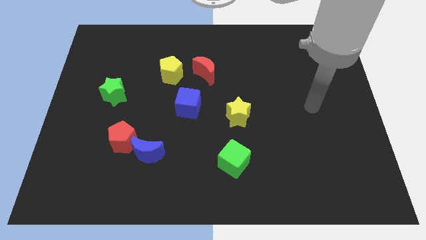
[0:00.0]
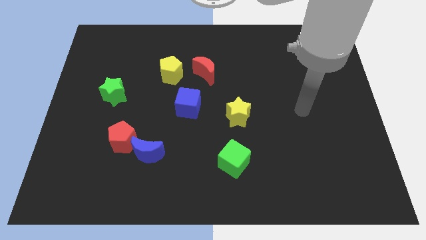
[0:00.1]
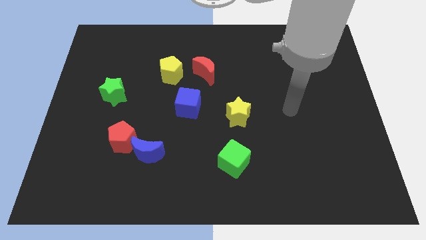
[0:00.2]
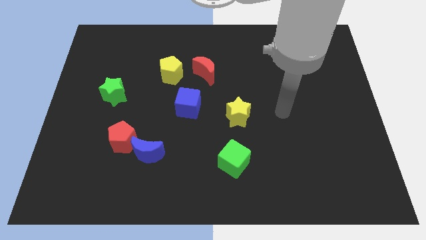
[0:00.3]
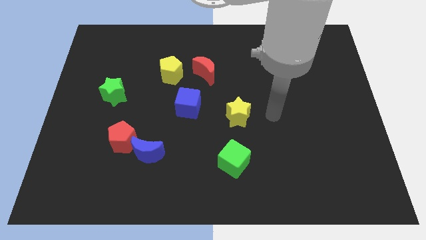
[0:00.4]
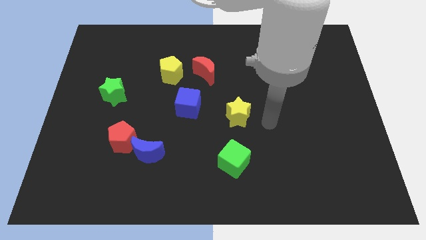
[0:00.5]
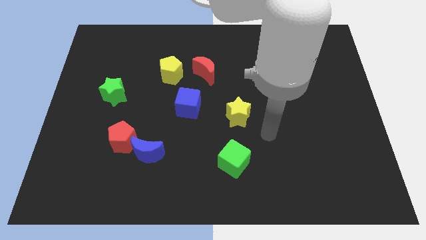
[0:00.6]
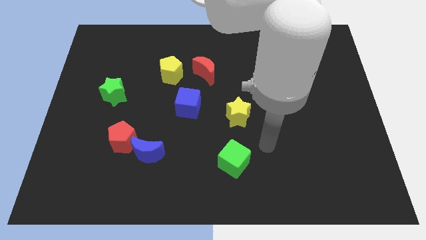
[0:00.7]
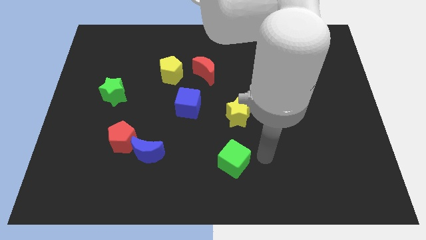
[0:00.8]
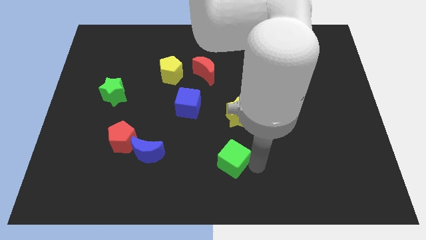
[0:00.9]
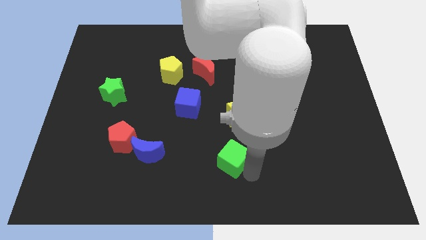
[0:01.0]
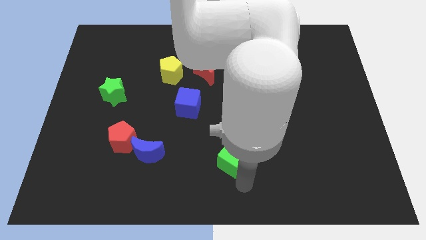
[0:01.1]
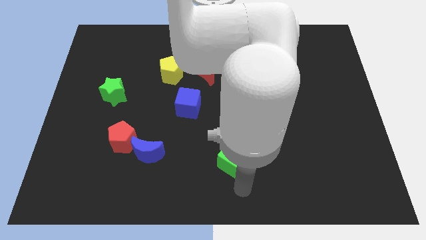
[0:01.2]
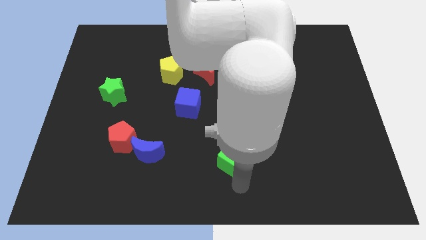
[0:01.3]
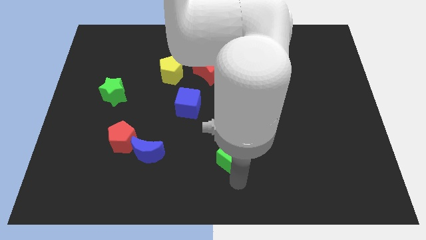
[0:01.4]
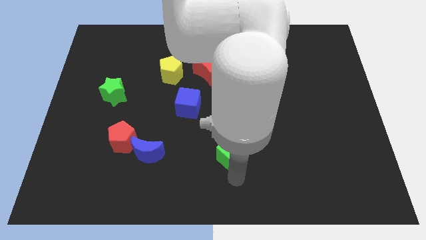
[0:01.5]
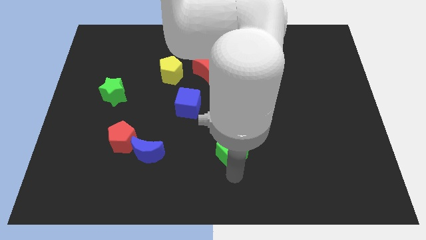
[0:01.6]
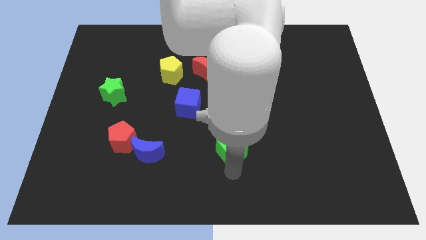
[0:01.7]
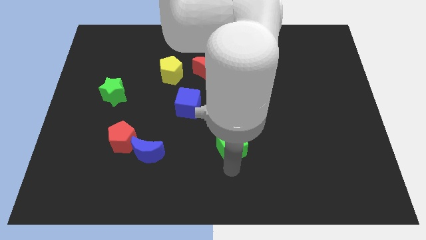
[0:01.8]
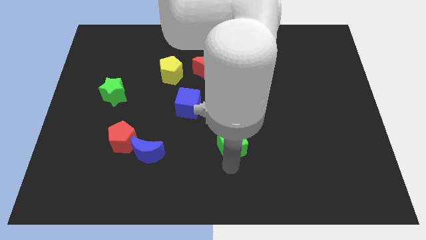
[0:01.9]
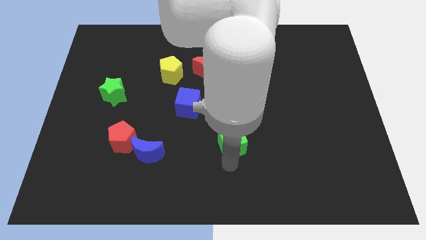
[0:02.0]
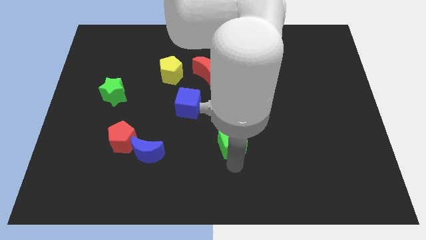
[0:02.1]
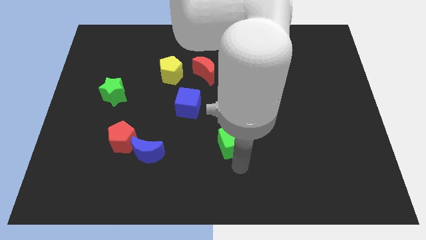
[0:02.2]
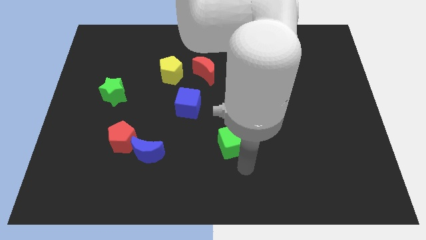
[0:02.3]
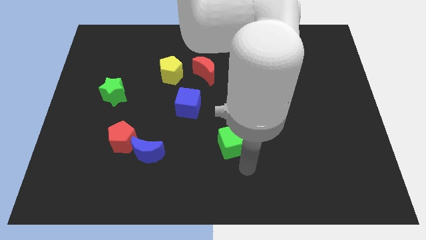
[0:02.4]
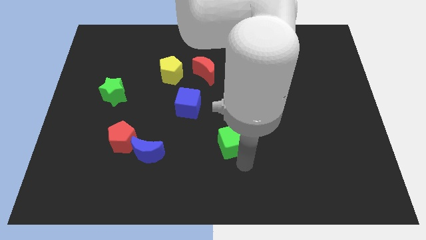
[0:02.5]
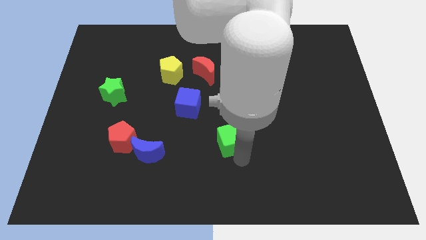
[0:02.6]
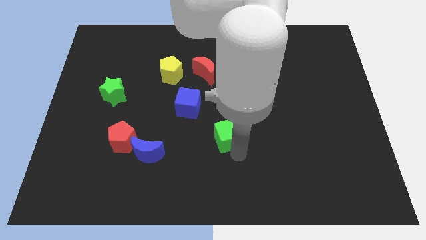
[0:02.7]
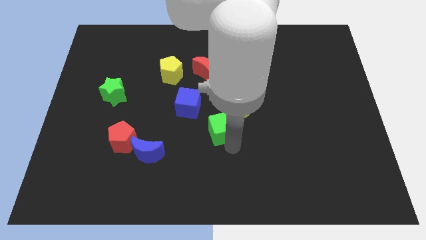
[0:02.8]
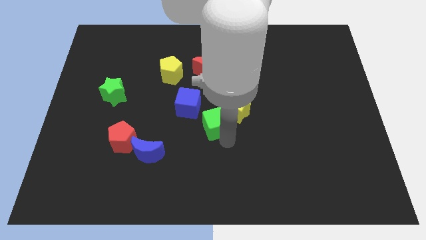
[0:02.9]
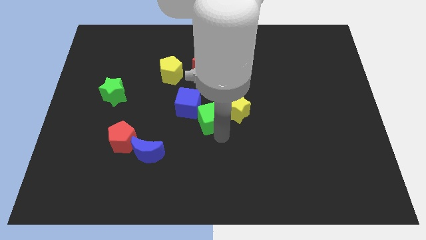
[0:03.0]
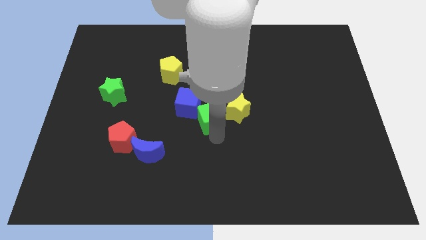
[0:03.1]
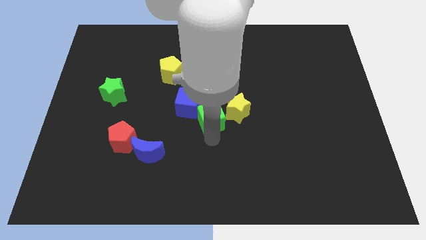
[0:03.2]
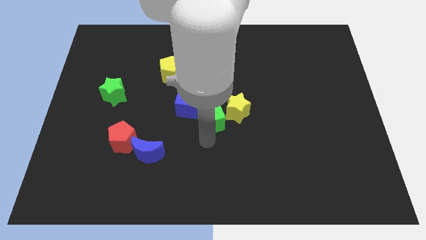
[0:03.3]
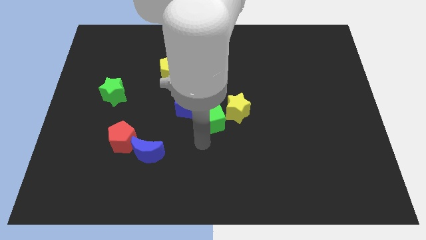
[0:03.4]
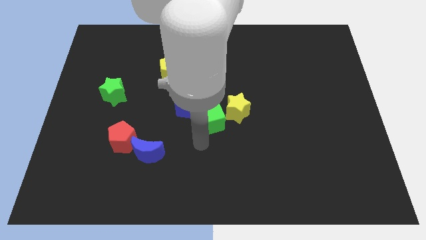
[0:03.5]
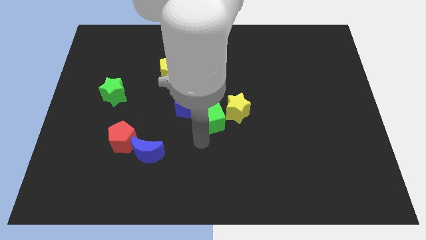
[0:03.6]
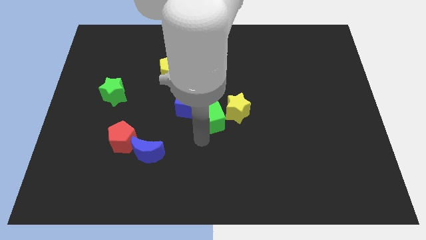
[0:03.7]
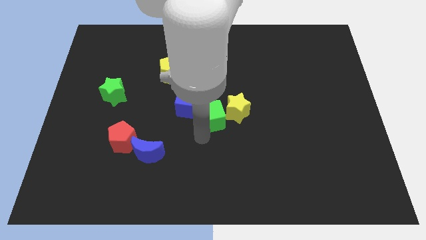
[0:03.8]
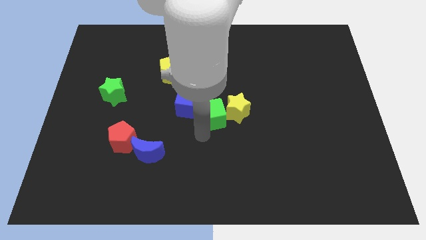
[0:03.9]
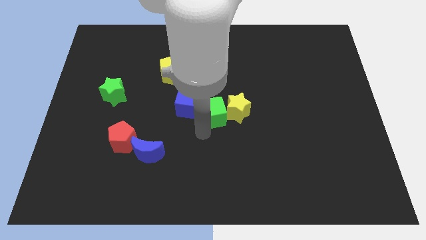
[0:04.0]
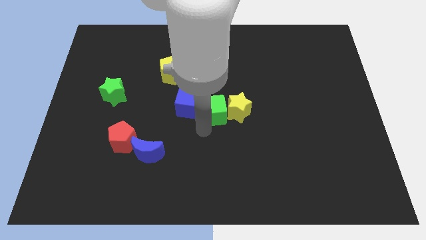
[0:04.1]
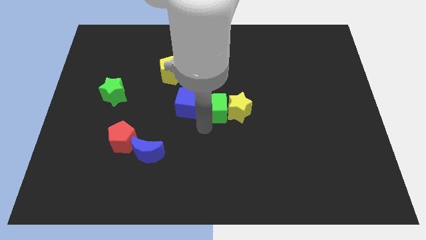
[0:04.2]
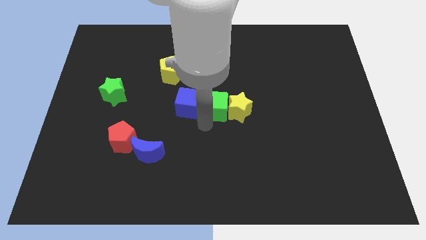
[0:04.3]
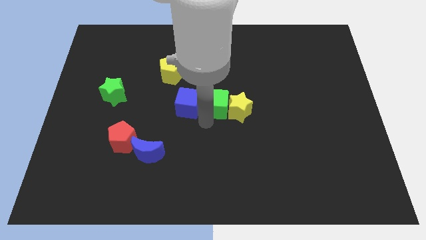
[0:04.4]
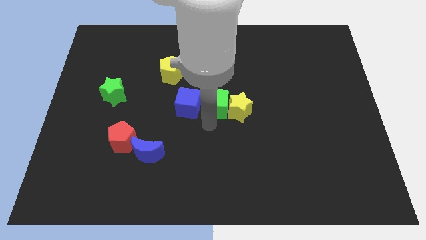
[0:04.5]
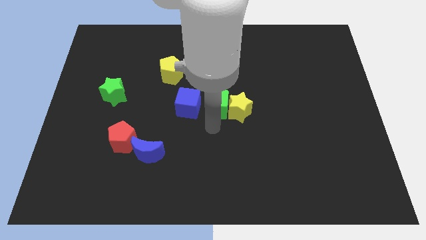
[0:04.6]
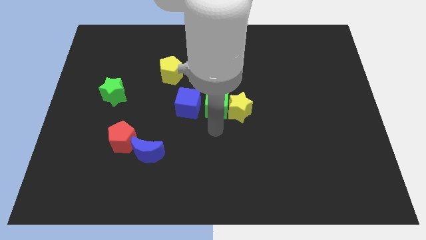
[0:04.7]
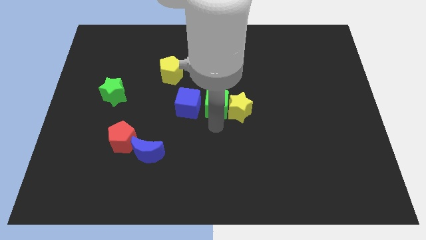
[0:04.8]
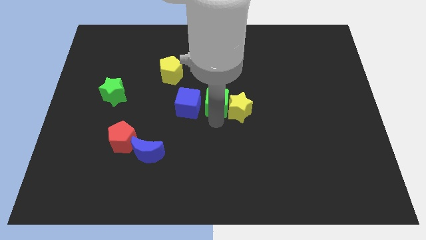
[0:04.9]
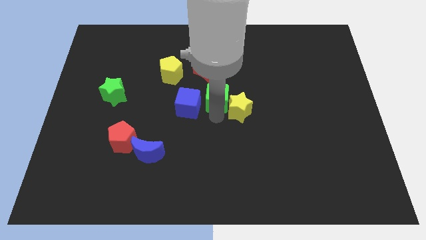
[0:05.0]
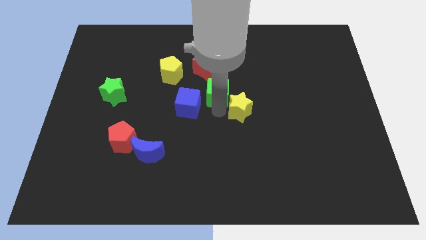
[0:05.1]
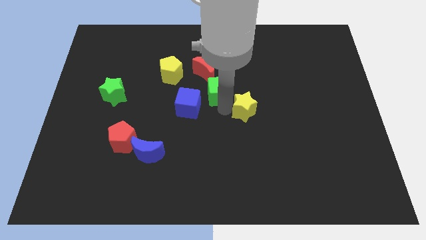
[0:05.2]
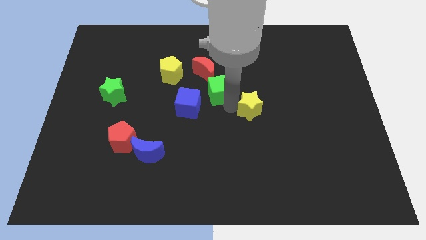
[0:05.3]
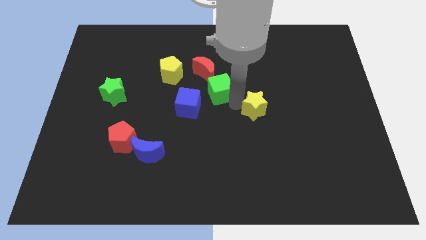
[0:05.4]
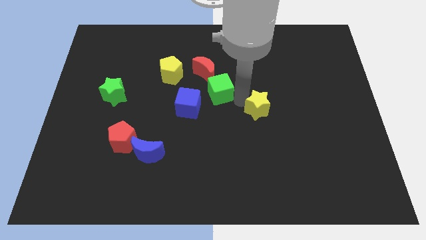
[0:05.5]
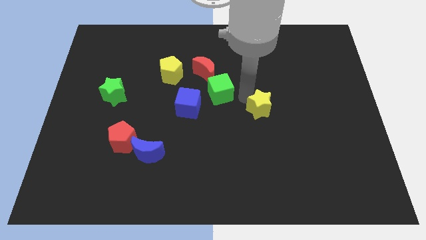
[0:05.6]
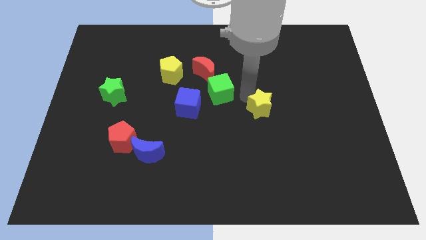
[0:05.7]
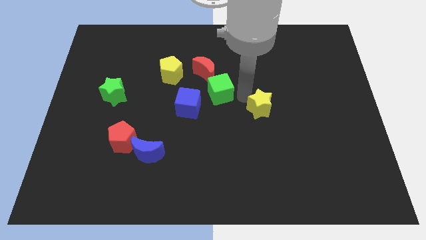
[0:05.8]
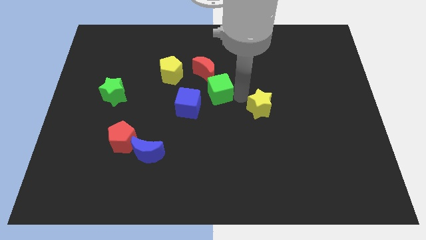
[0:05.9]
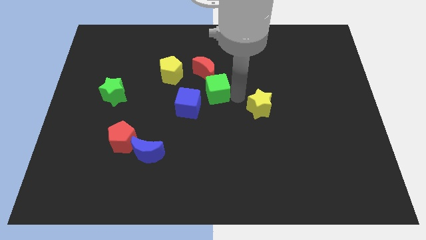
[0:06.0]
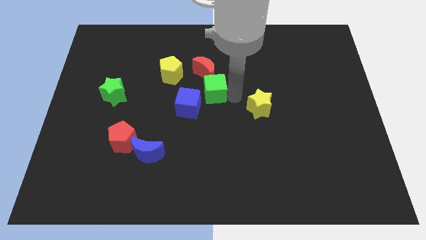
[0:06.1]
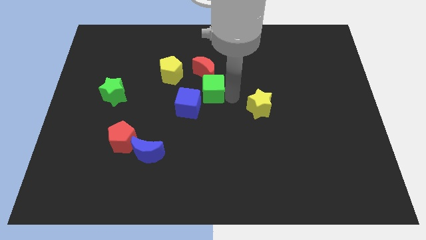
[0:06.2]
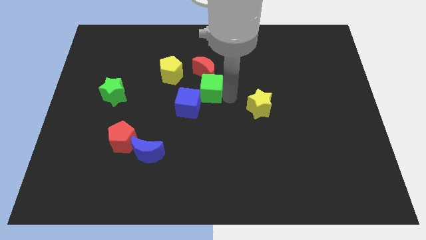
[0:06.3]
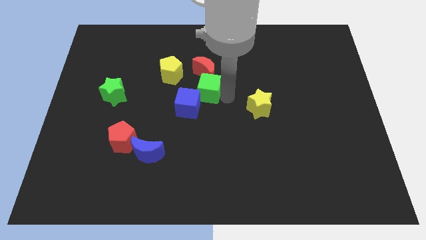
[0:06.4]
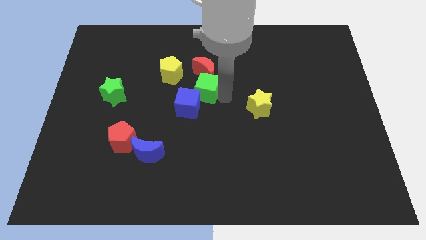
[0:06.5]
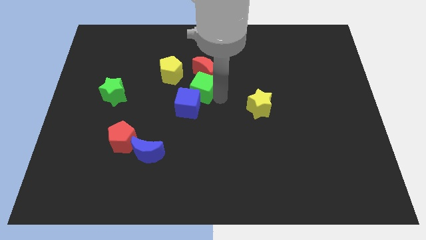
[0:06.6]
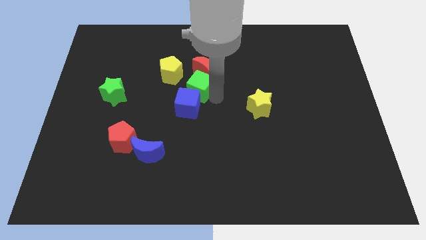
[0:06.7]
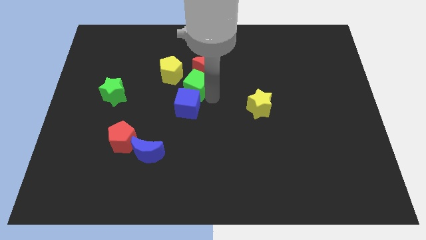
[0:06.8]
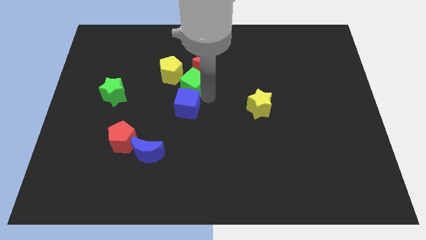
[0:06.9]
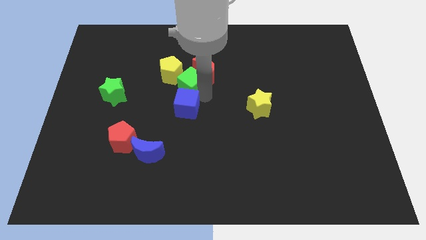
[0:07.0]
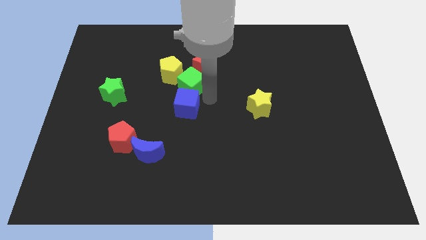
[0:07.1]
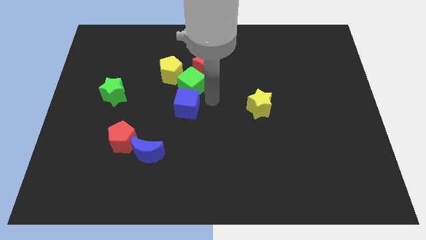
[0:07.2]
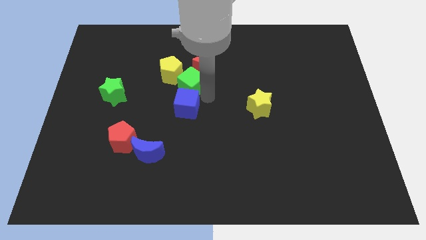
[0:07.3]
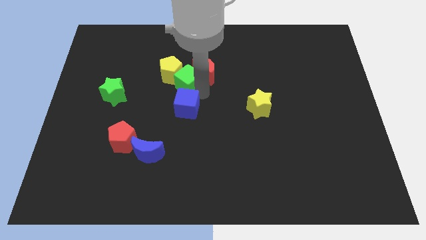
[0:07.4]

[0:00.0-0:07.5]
put the green cube next to the yellow pentagon
